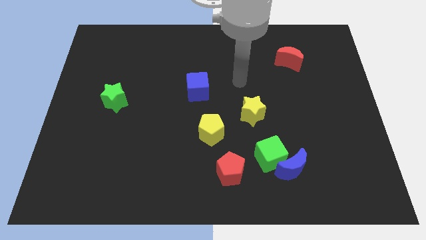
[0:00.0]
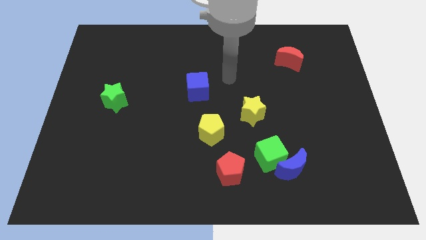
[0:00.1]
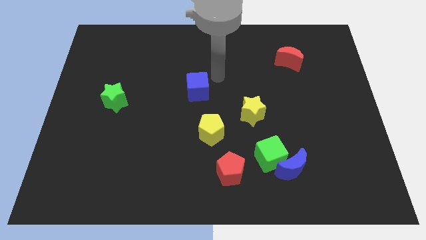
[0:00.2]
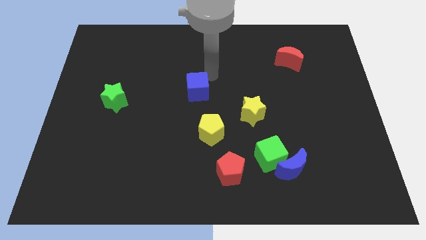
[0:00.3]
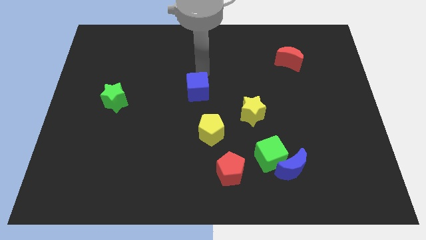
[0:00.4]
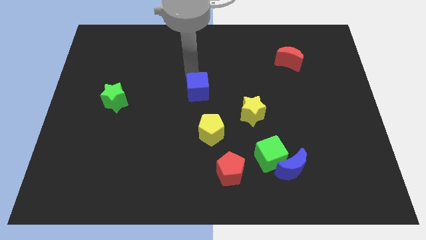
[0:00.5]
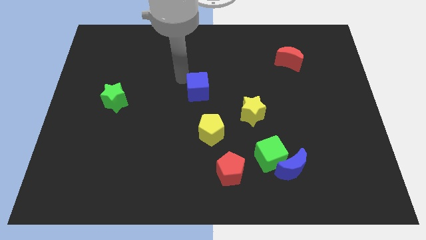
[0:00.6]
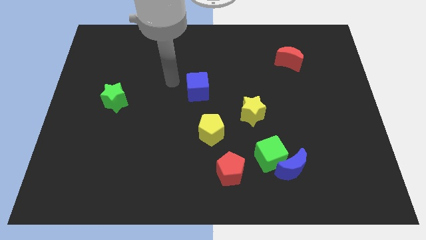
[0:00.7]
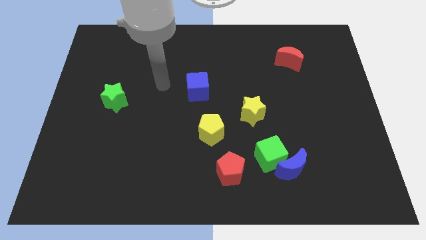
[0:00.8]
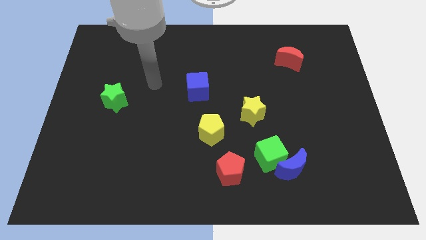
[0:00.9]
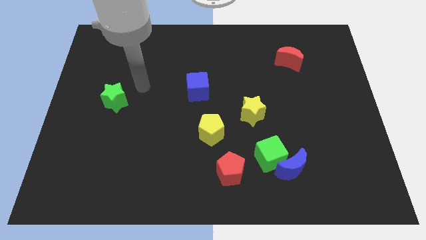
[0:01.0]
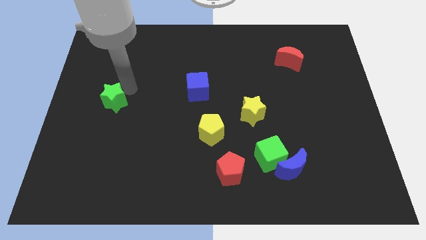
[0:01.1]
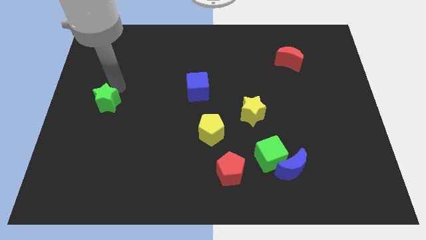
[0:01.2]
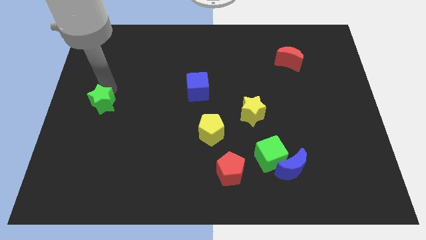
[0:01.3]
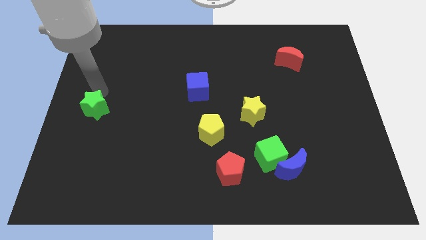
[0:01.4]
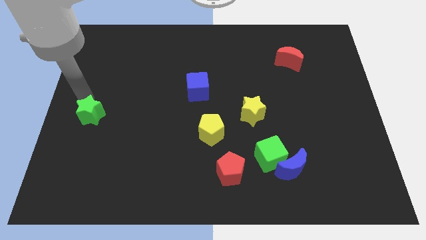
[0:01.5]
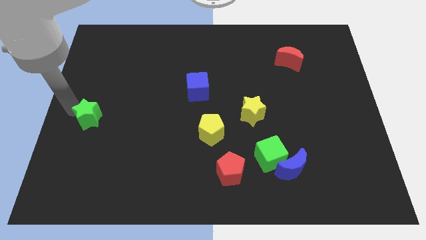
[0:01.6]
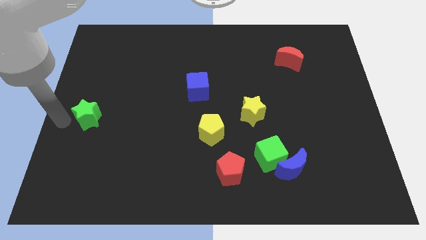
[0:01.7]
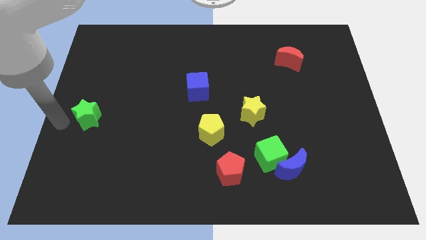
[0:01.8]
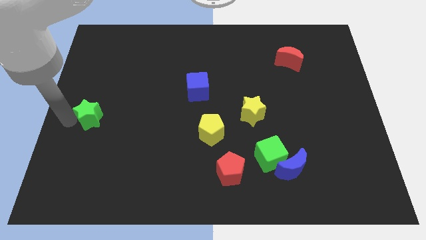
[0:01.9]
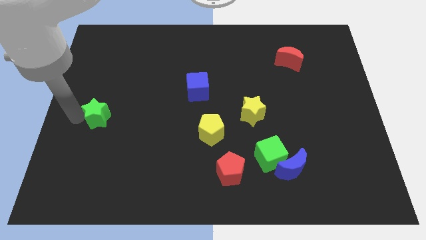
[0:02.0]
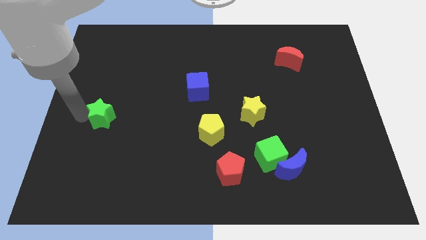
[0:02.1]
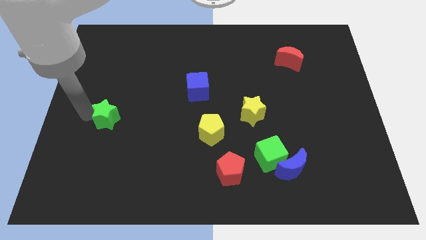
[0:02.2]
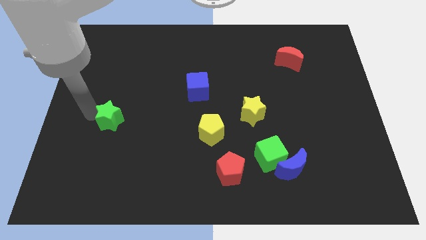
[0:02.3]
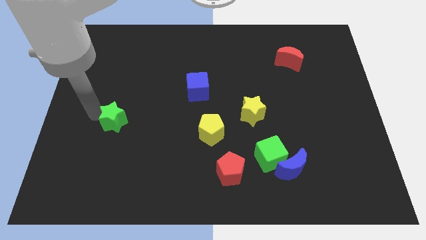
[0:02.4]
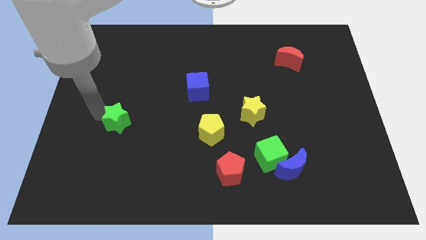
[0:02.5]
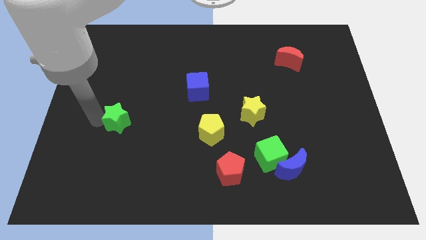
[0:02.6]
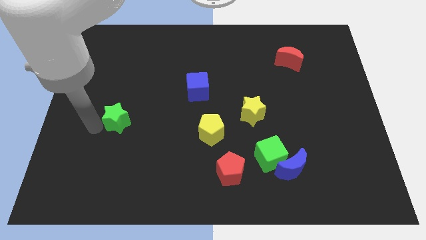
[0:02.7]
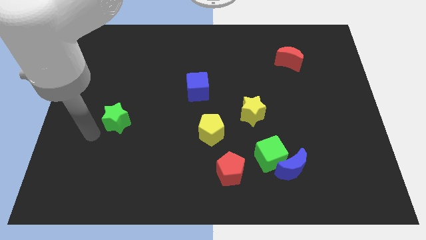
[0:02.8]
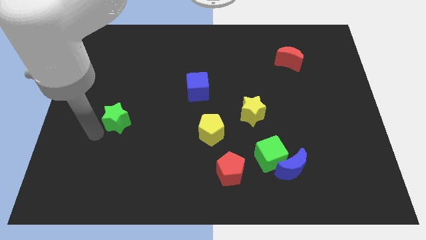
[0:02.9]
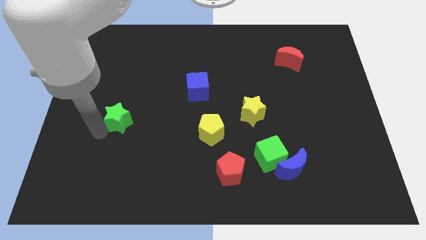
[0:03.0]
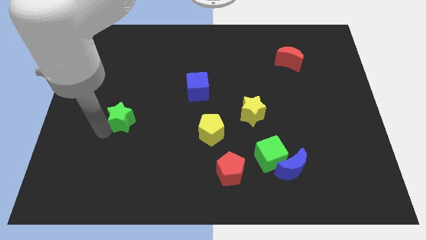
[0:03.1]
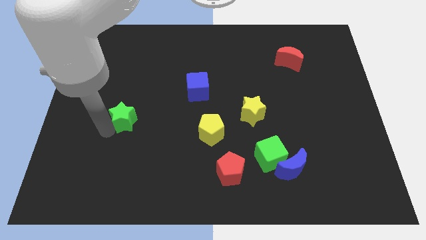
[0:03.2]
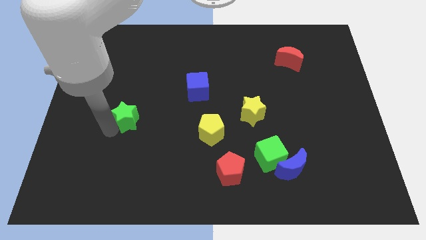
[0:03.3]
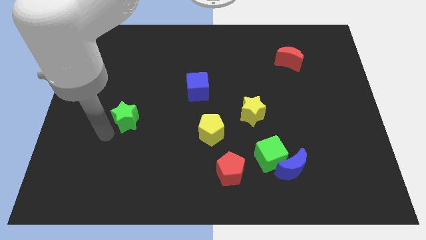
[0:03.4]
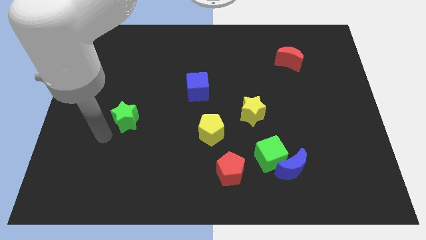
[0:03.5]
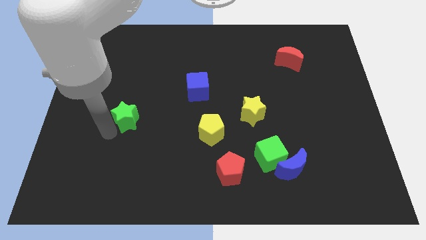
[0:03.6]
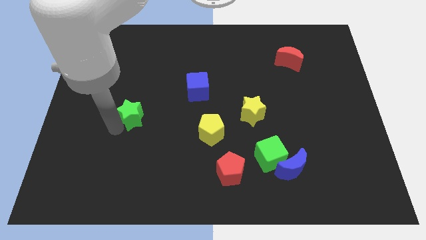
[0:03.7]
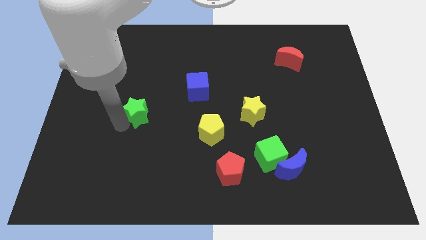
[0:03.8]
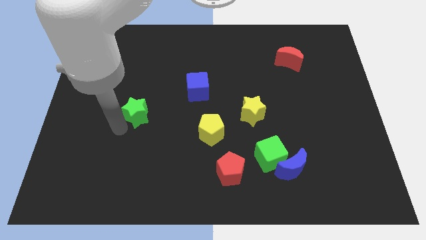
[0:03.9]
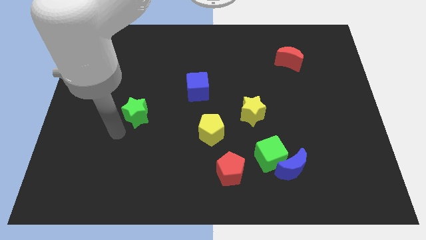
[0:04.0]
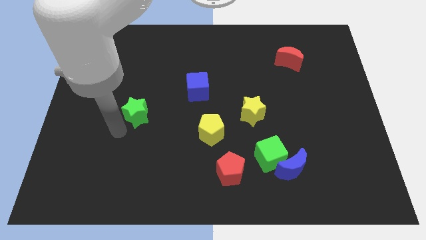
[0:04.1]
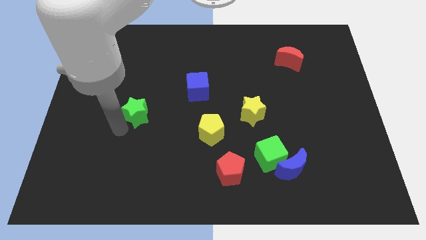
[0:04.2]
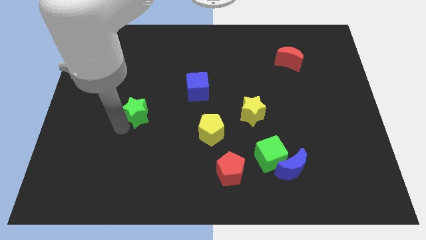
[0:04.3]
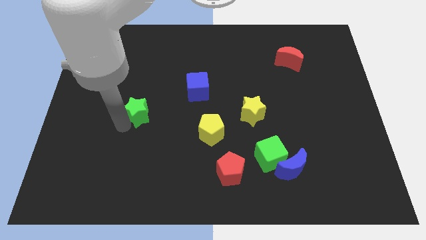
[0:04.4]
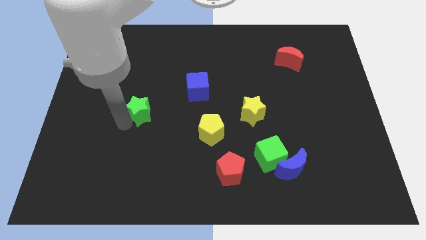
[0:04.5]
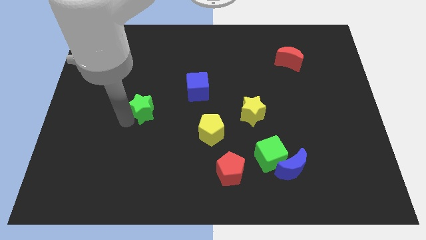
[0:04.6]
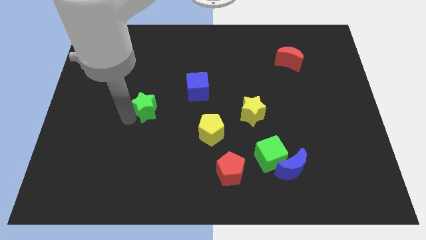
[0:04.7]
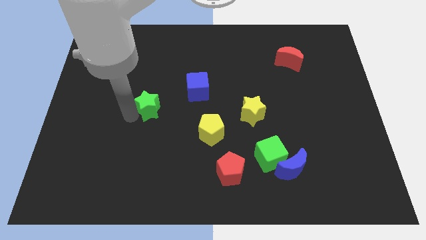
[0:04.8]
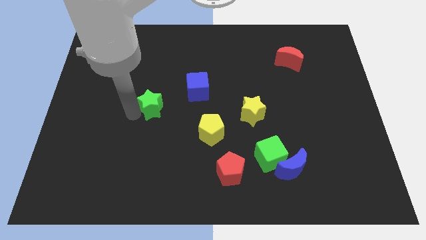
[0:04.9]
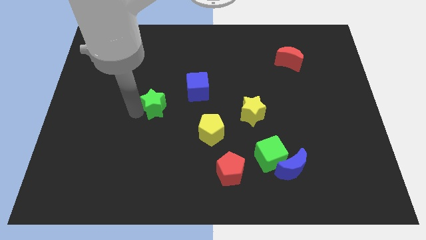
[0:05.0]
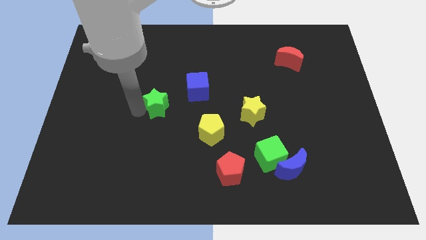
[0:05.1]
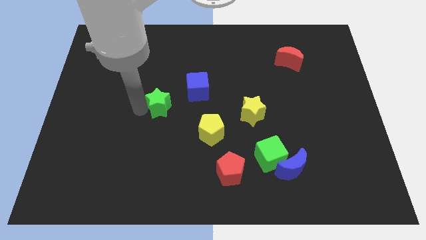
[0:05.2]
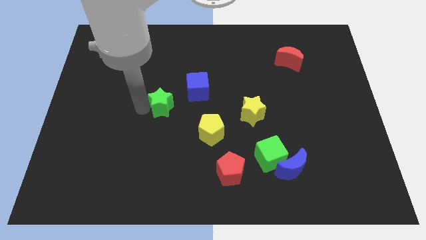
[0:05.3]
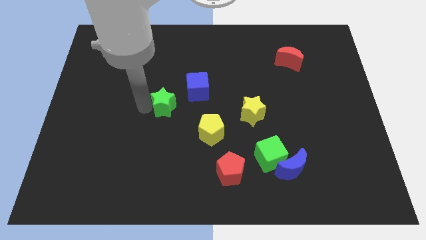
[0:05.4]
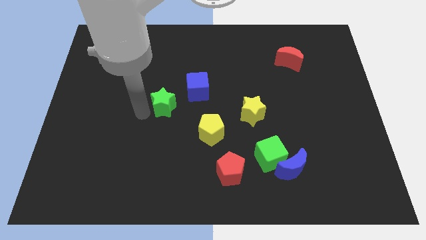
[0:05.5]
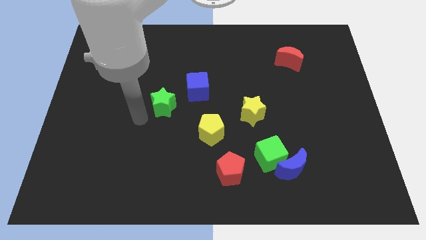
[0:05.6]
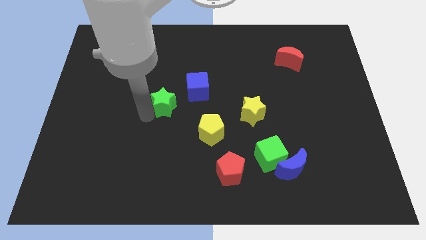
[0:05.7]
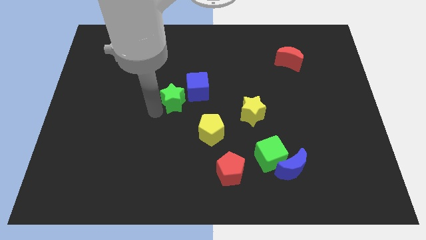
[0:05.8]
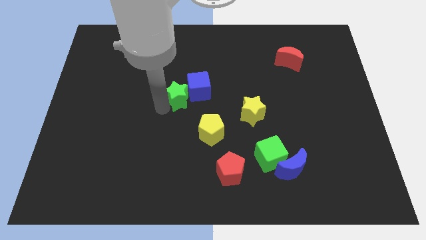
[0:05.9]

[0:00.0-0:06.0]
slide the green star to the blue cube

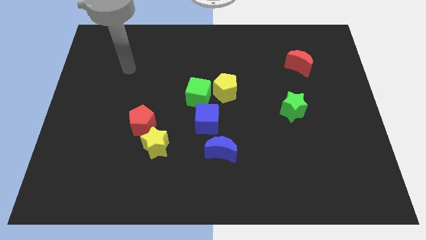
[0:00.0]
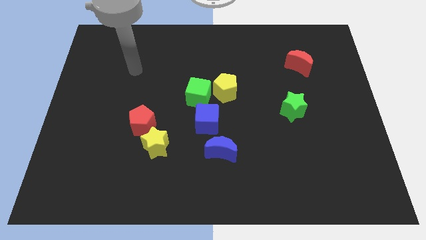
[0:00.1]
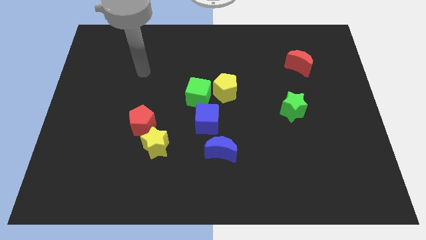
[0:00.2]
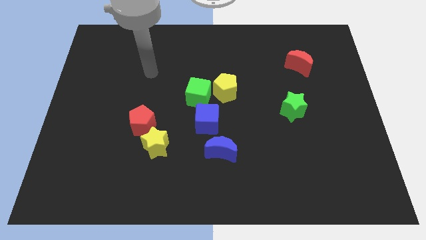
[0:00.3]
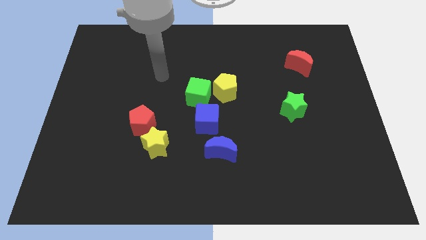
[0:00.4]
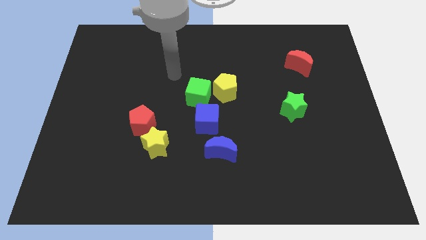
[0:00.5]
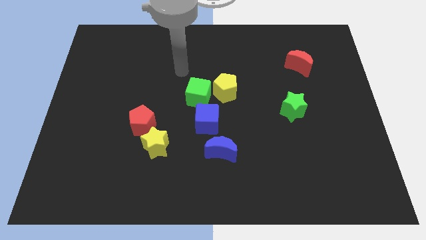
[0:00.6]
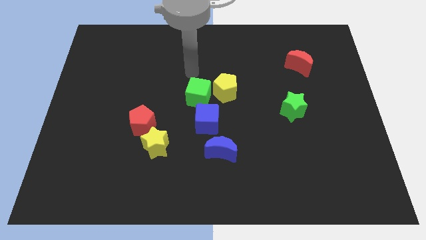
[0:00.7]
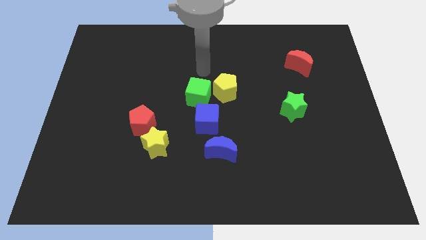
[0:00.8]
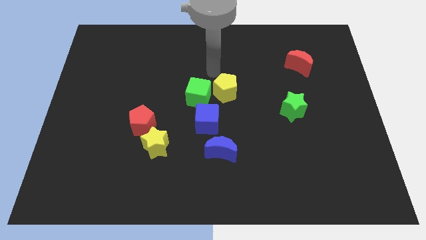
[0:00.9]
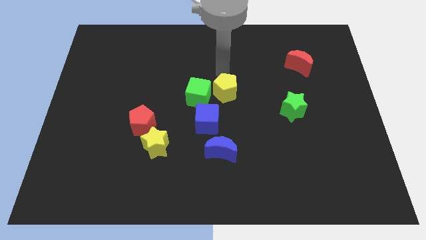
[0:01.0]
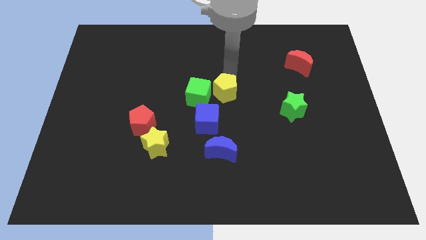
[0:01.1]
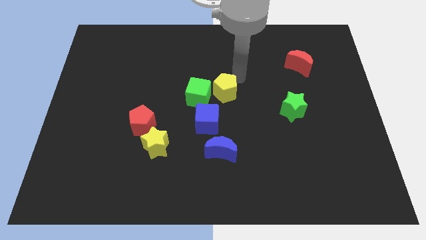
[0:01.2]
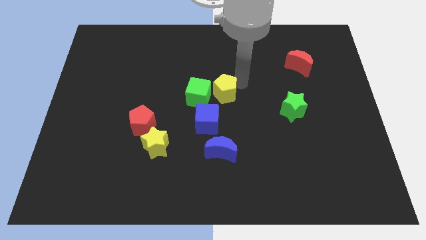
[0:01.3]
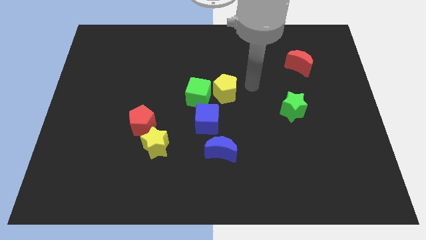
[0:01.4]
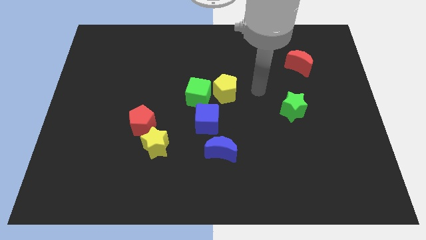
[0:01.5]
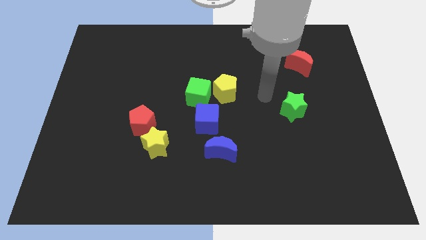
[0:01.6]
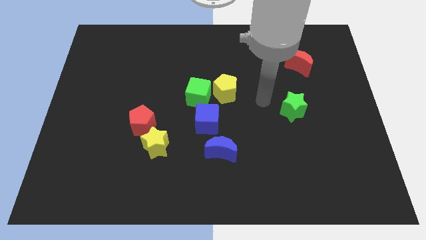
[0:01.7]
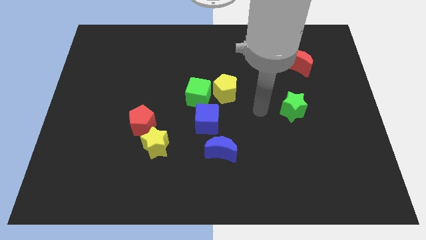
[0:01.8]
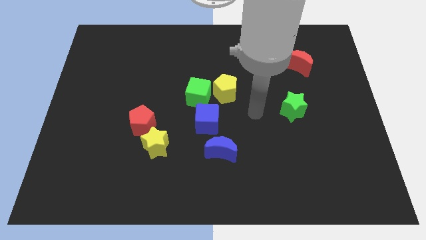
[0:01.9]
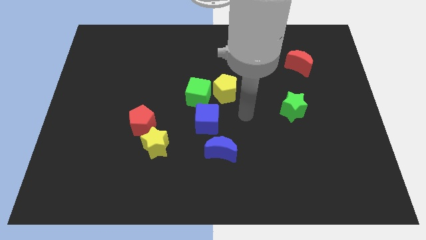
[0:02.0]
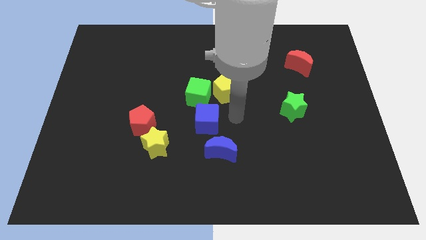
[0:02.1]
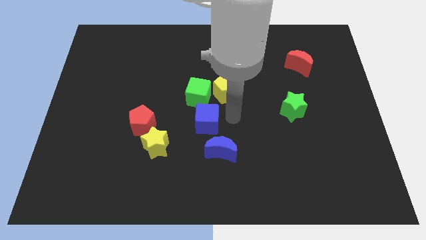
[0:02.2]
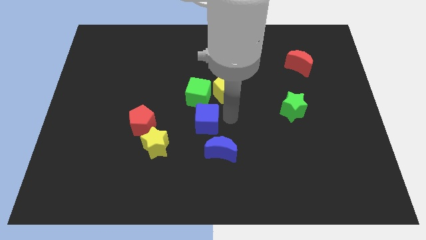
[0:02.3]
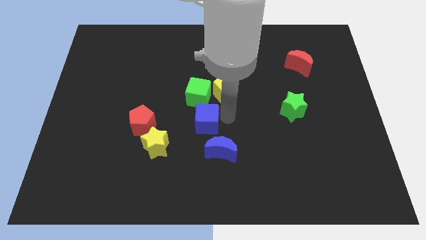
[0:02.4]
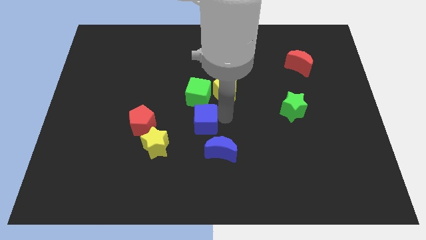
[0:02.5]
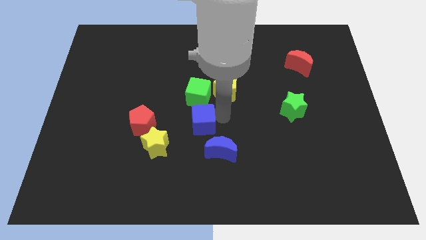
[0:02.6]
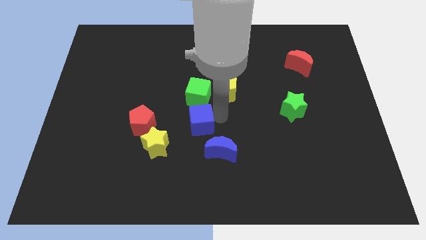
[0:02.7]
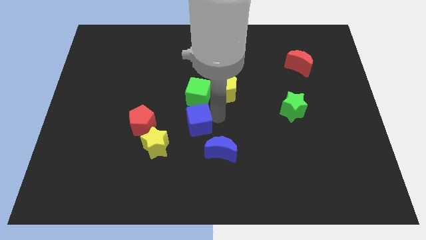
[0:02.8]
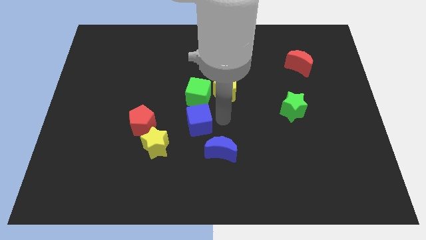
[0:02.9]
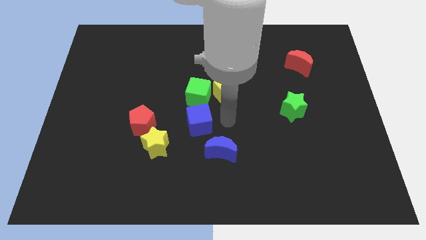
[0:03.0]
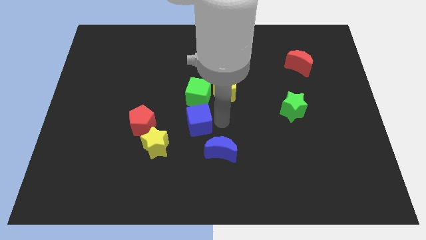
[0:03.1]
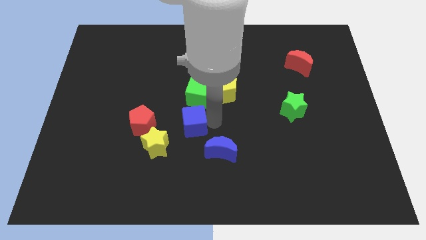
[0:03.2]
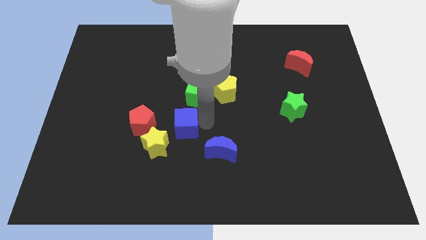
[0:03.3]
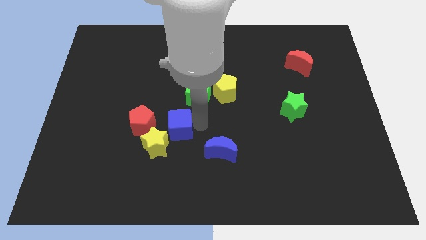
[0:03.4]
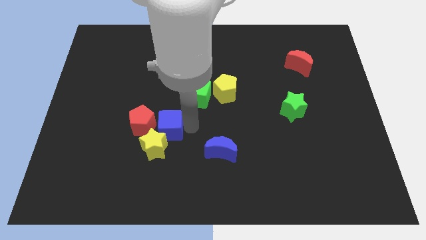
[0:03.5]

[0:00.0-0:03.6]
push the blue cube to the red pentagon
